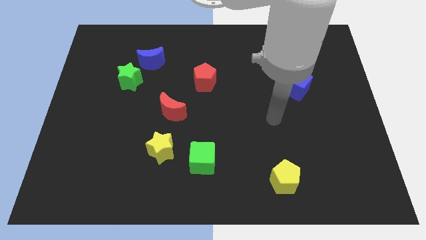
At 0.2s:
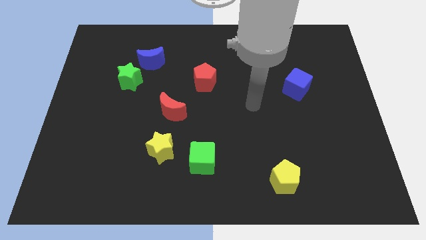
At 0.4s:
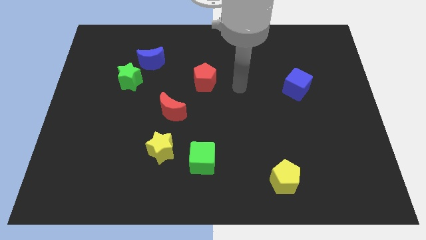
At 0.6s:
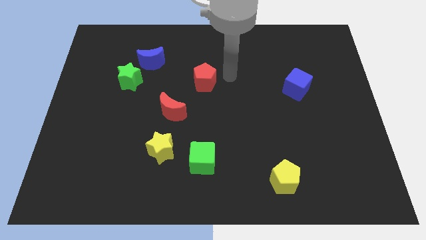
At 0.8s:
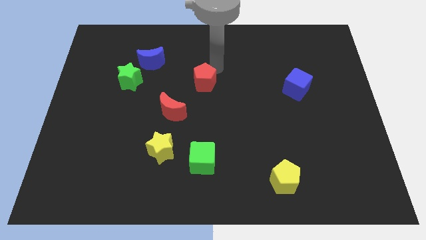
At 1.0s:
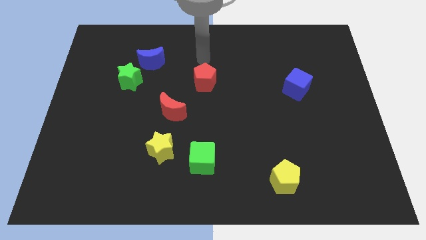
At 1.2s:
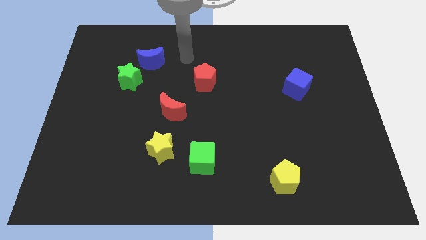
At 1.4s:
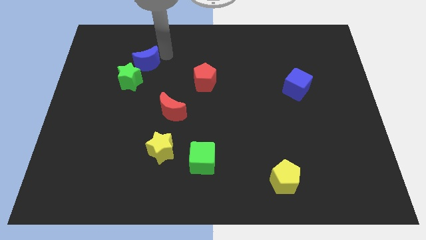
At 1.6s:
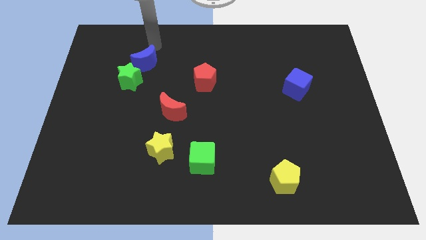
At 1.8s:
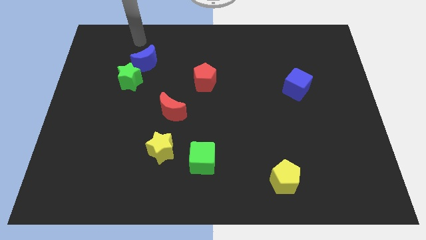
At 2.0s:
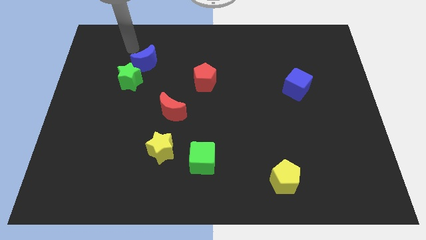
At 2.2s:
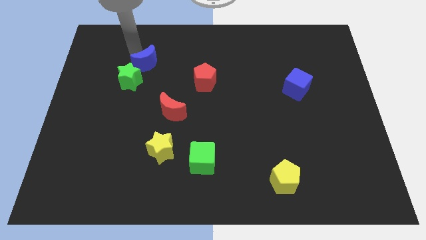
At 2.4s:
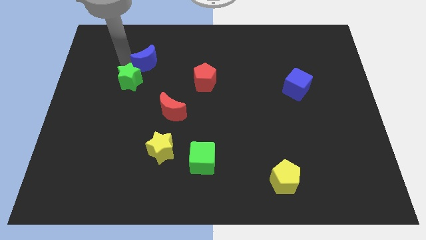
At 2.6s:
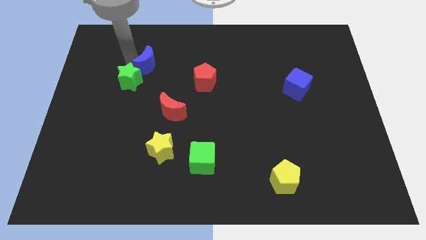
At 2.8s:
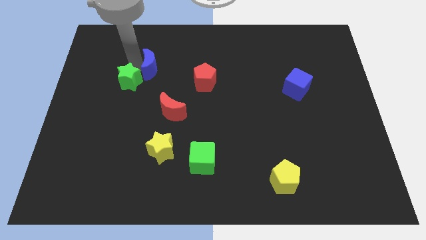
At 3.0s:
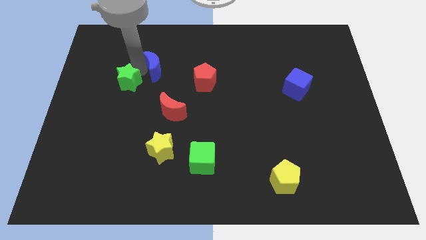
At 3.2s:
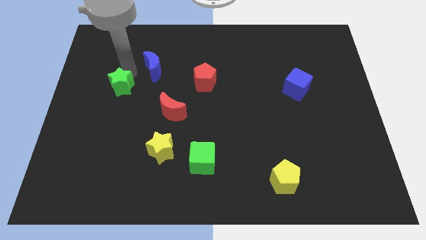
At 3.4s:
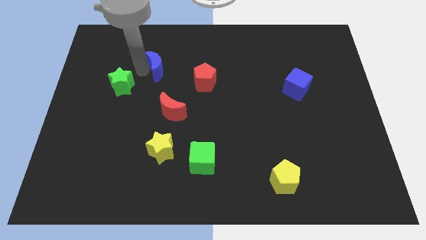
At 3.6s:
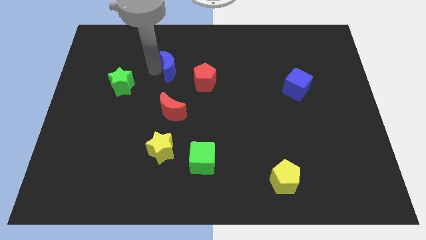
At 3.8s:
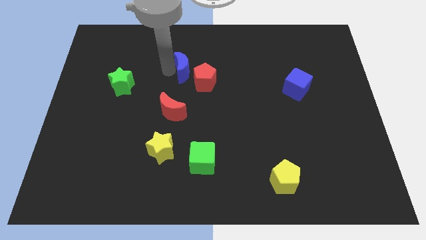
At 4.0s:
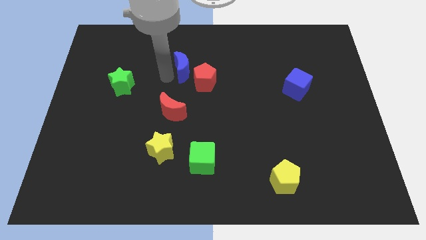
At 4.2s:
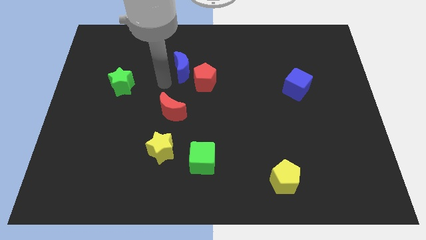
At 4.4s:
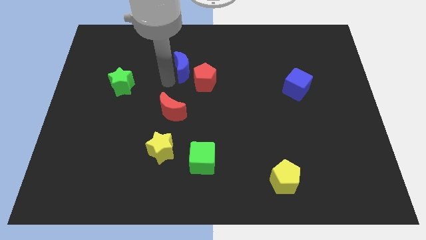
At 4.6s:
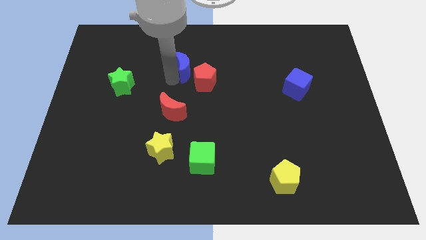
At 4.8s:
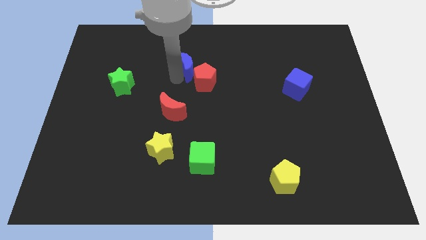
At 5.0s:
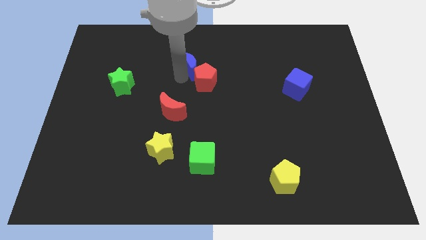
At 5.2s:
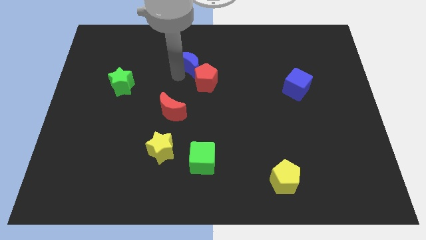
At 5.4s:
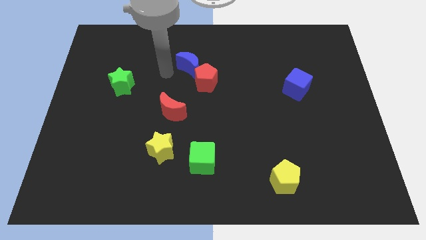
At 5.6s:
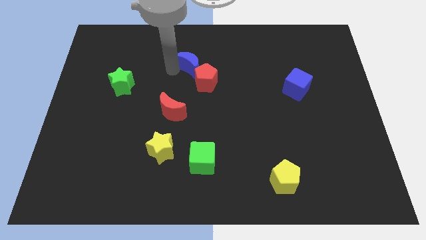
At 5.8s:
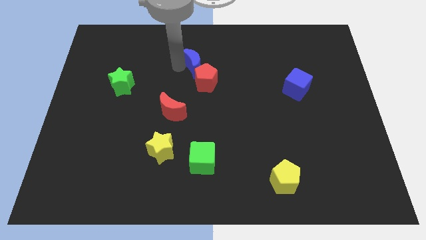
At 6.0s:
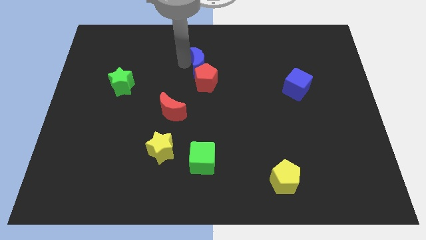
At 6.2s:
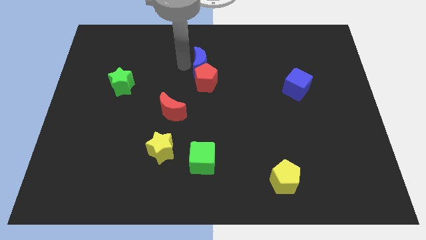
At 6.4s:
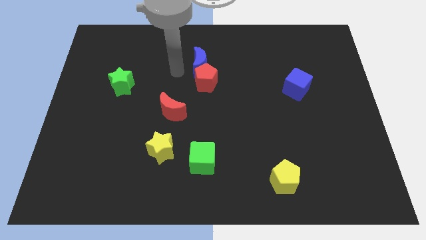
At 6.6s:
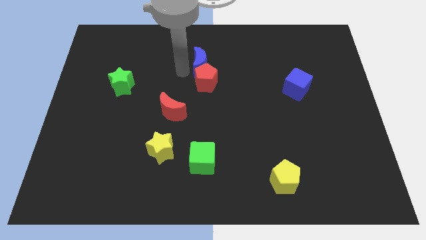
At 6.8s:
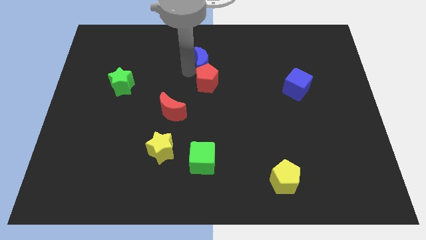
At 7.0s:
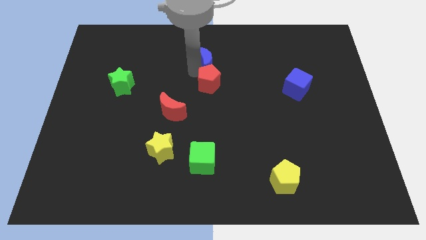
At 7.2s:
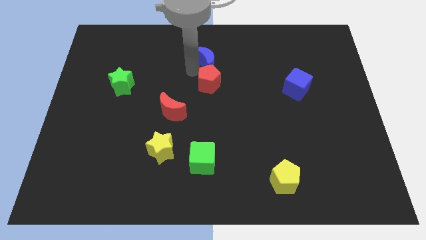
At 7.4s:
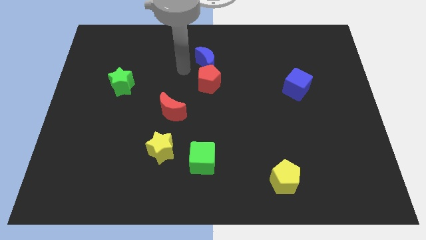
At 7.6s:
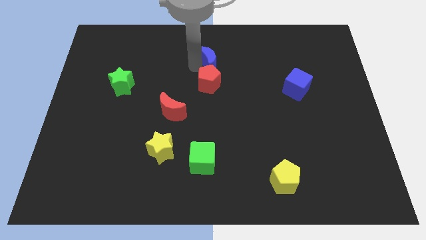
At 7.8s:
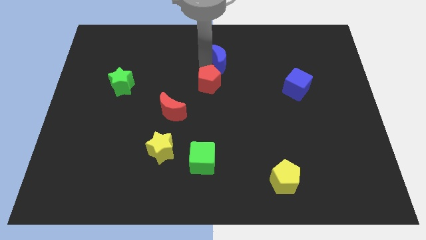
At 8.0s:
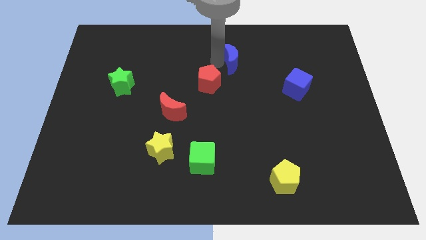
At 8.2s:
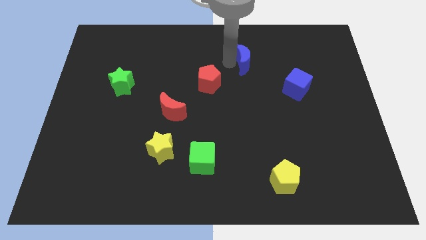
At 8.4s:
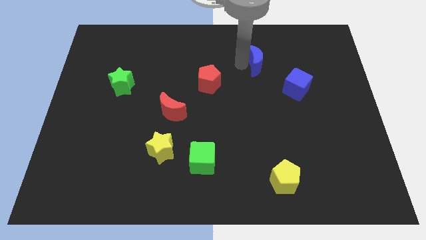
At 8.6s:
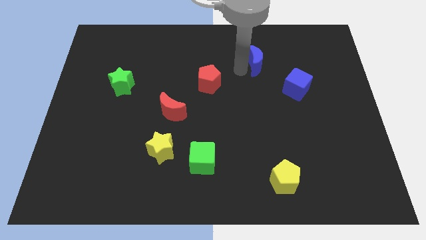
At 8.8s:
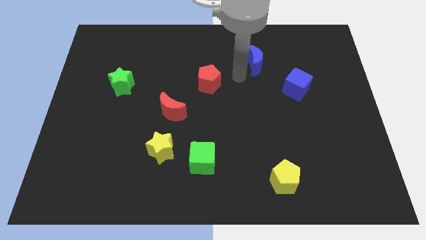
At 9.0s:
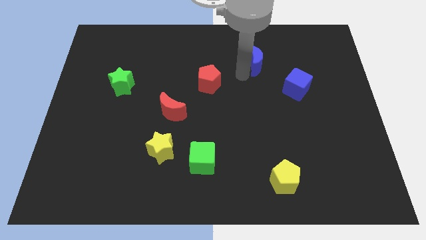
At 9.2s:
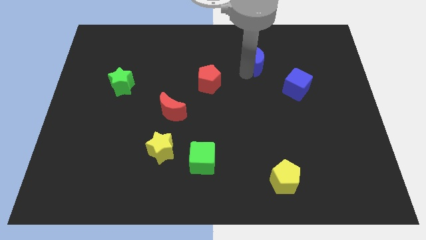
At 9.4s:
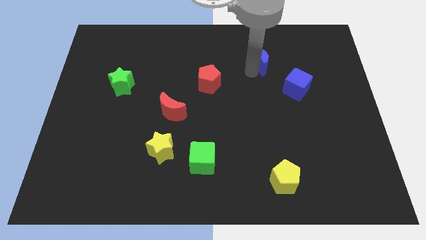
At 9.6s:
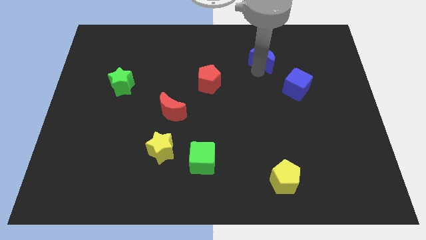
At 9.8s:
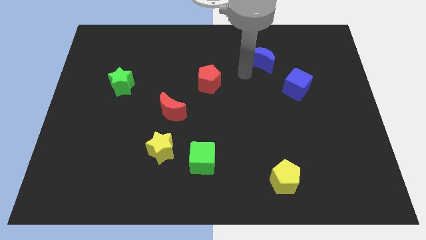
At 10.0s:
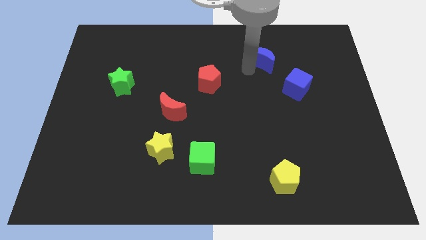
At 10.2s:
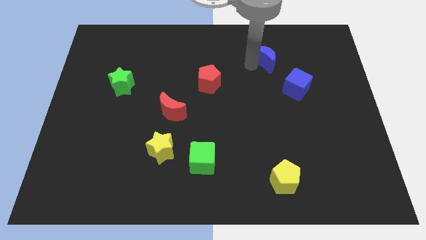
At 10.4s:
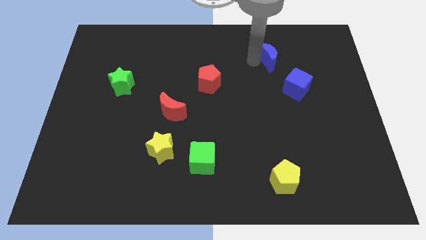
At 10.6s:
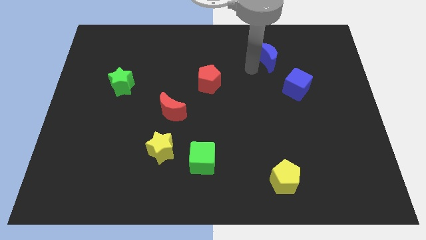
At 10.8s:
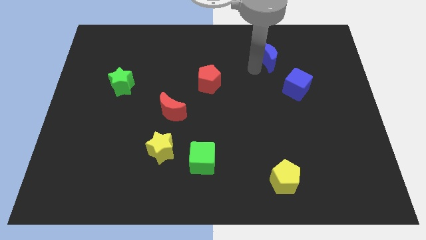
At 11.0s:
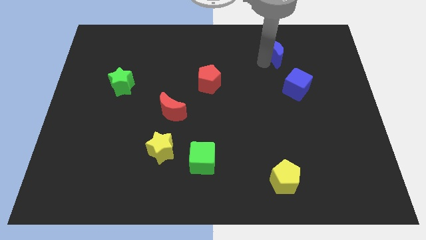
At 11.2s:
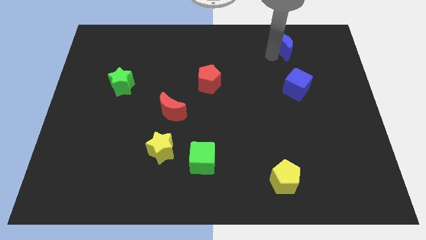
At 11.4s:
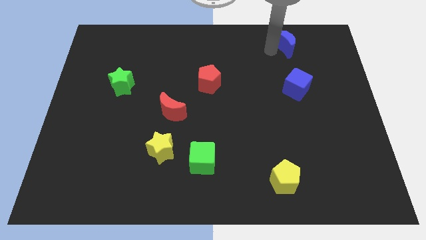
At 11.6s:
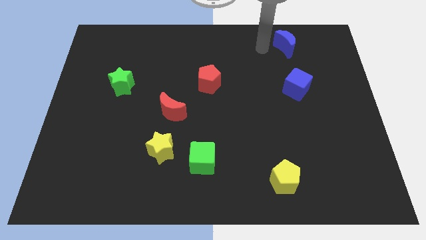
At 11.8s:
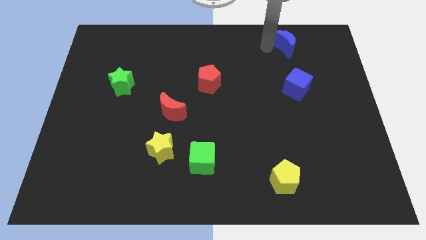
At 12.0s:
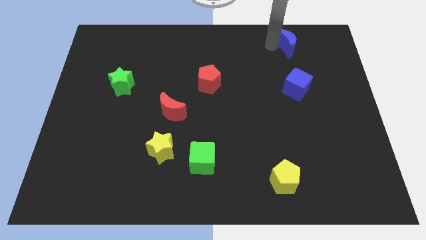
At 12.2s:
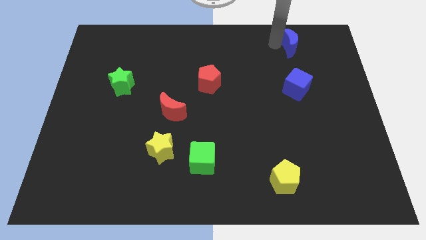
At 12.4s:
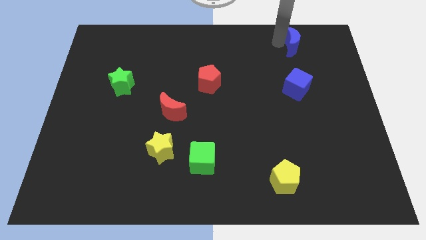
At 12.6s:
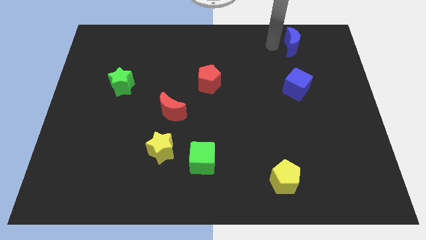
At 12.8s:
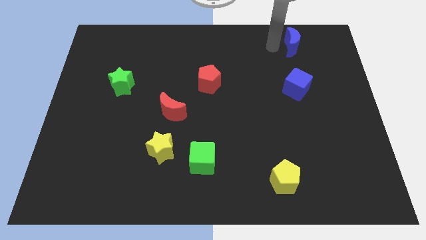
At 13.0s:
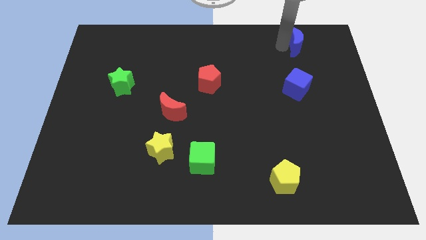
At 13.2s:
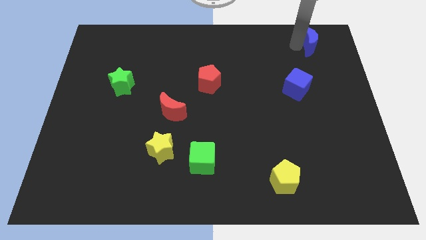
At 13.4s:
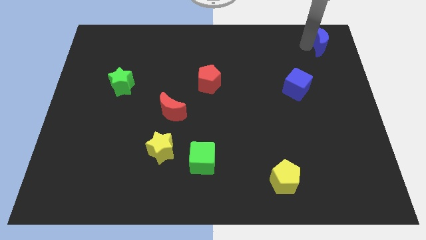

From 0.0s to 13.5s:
slide the blue moon to the top right

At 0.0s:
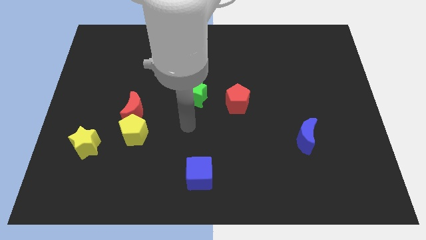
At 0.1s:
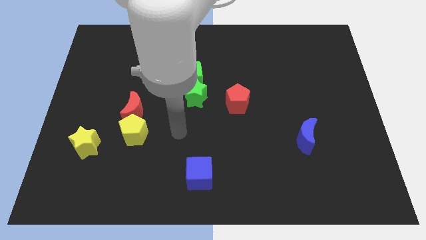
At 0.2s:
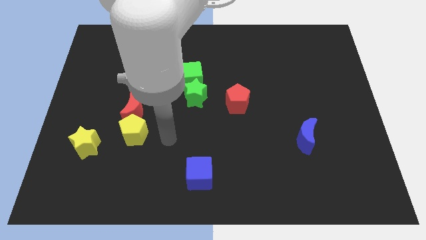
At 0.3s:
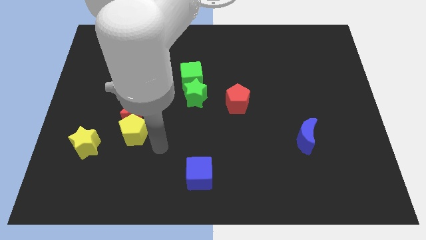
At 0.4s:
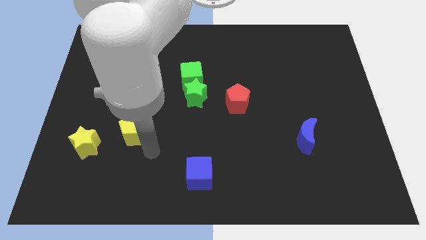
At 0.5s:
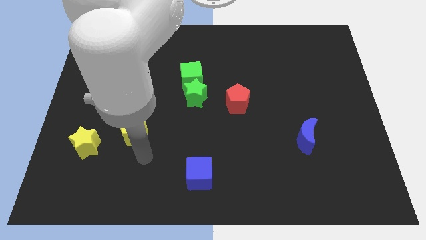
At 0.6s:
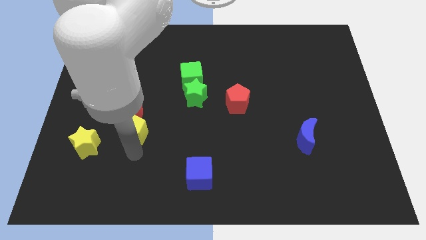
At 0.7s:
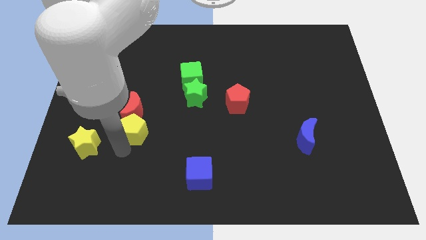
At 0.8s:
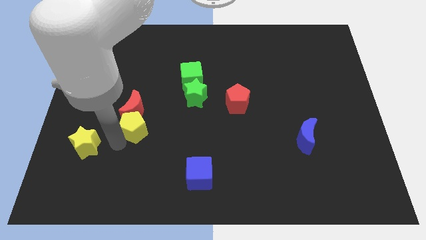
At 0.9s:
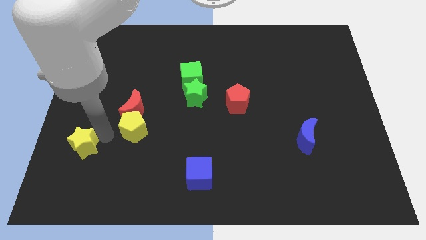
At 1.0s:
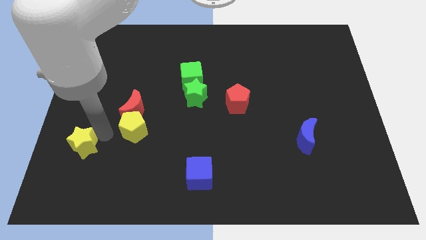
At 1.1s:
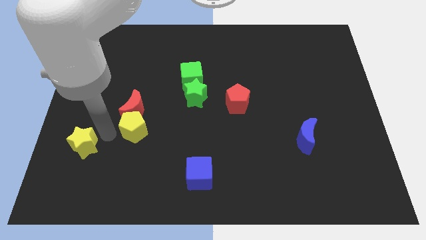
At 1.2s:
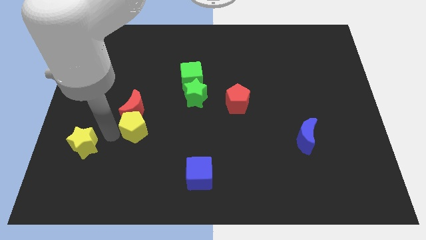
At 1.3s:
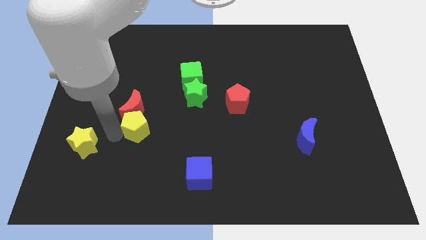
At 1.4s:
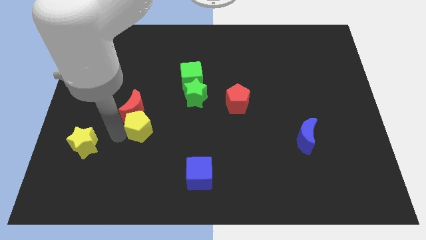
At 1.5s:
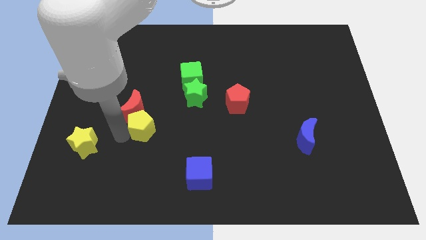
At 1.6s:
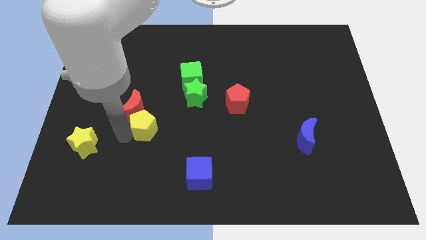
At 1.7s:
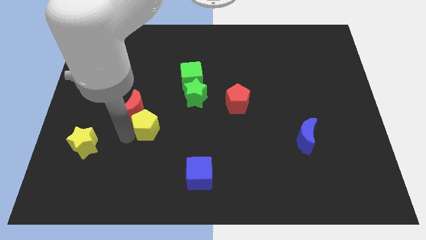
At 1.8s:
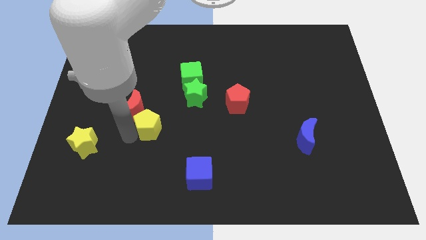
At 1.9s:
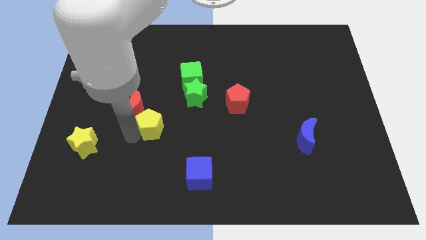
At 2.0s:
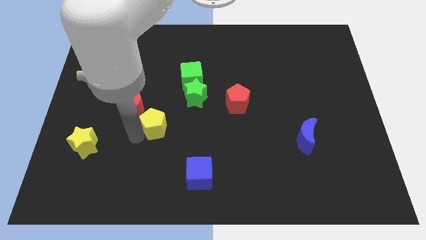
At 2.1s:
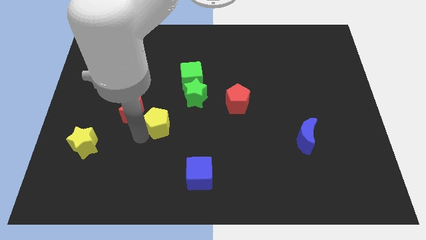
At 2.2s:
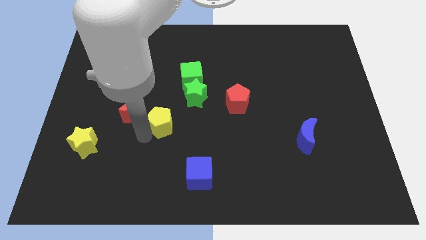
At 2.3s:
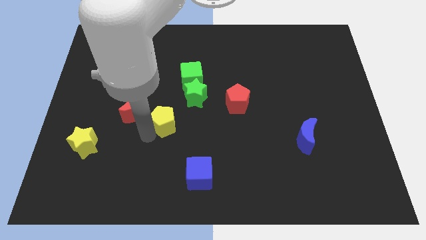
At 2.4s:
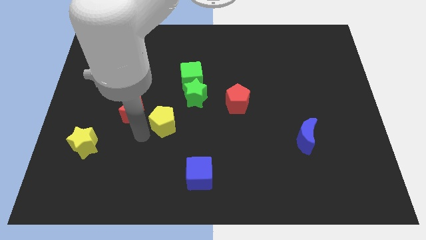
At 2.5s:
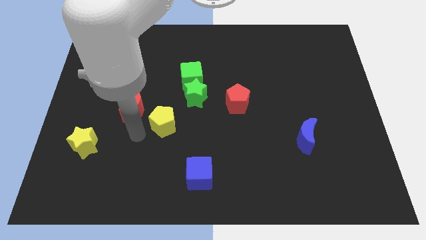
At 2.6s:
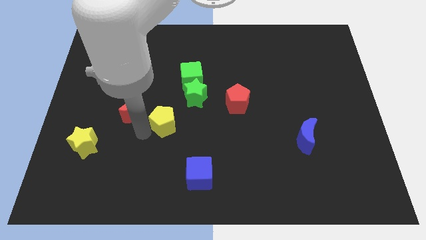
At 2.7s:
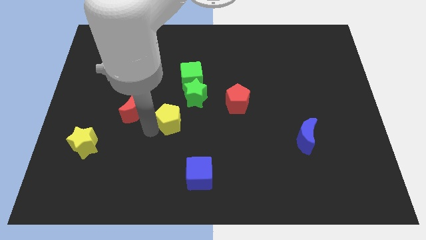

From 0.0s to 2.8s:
push the yellow pentagon to the center
